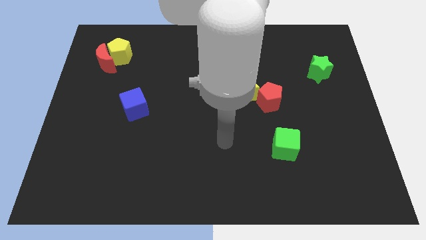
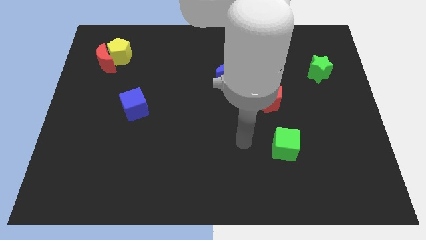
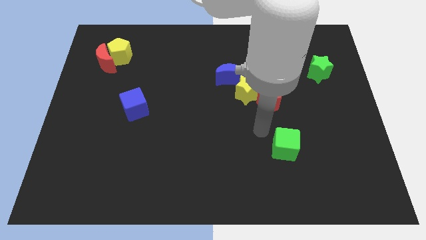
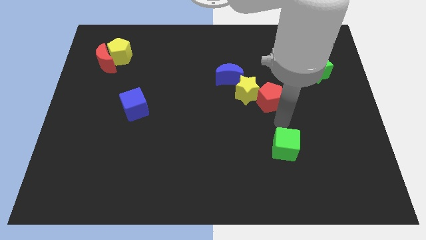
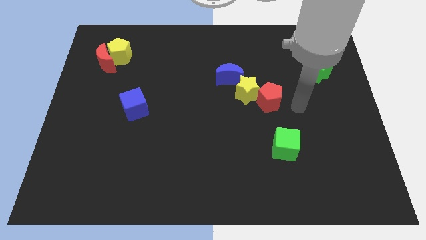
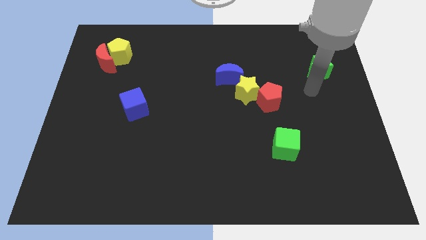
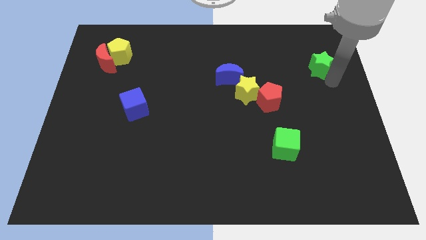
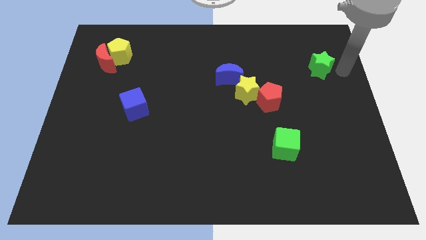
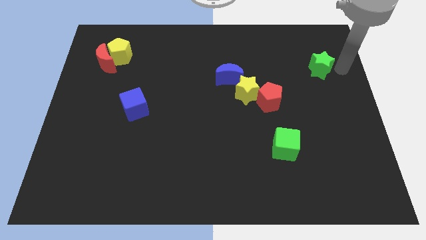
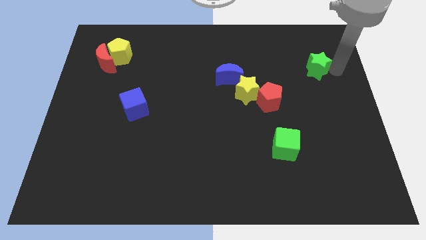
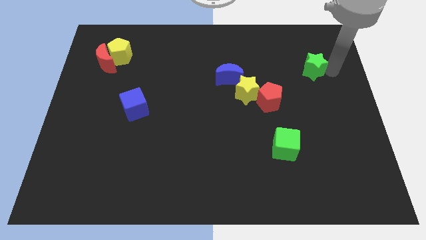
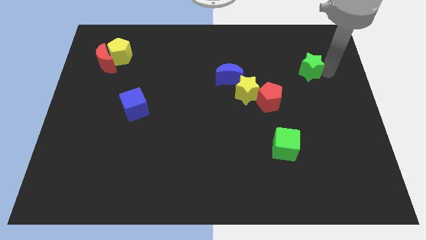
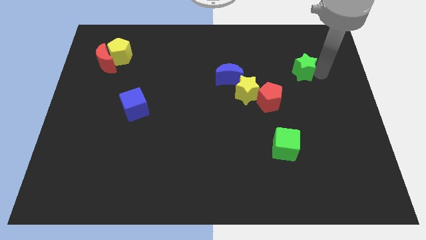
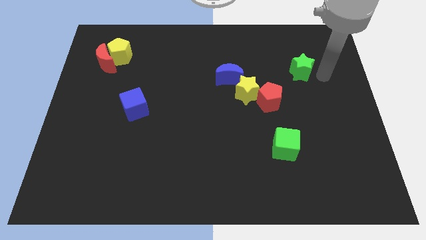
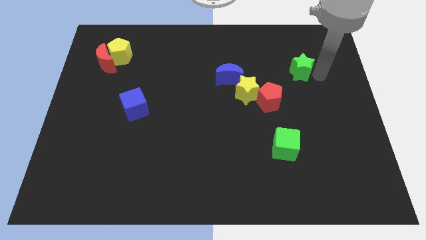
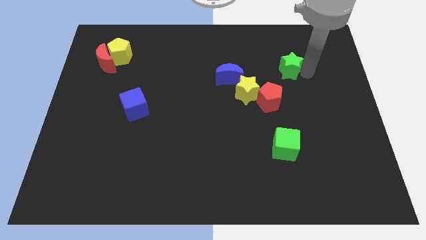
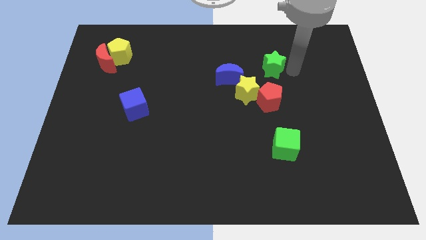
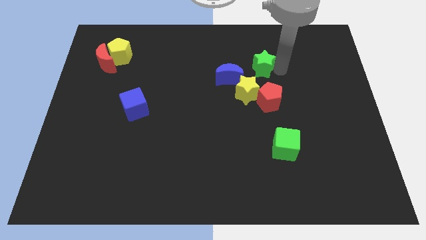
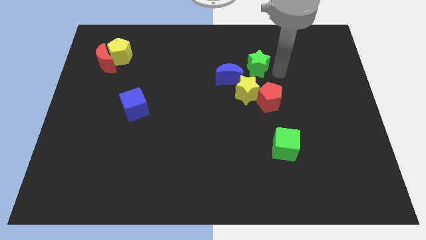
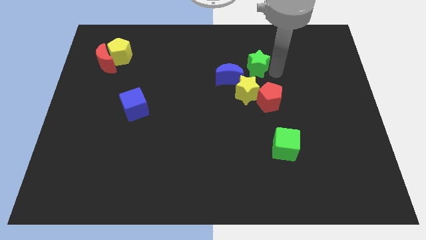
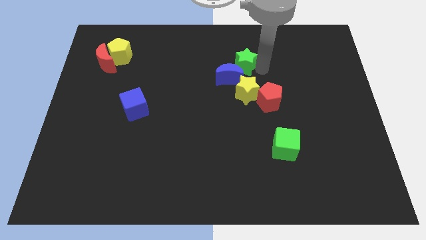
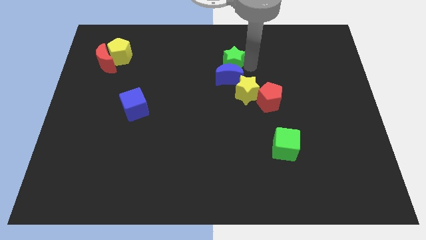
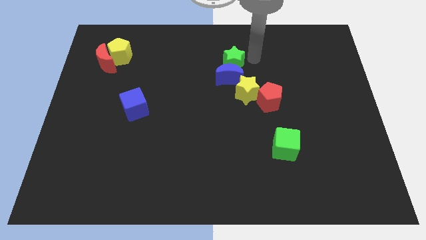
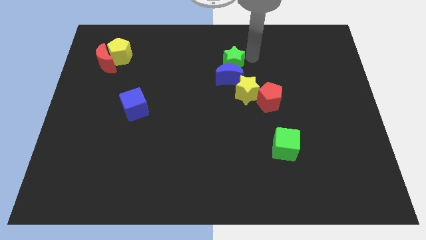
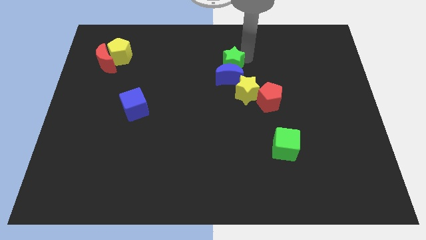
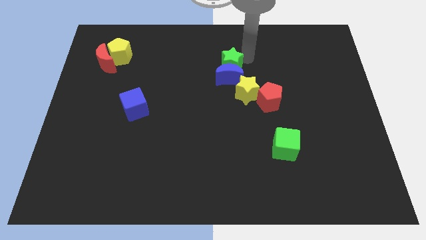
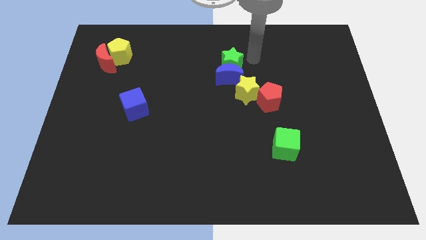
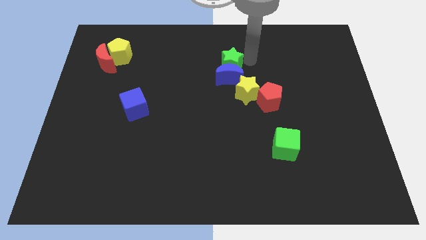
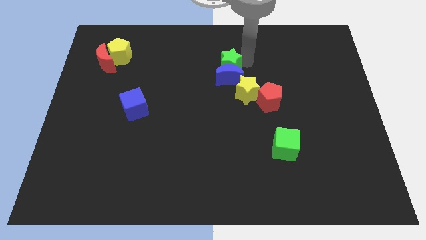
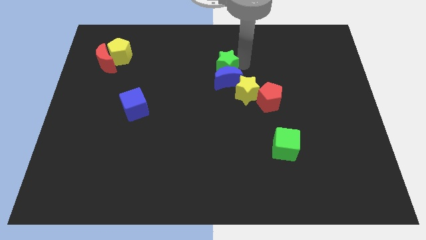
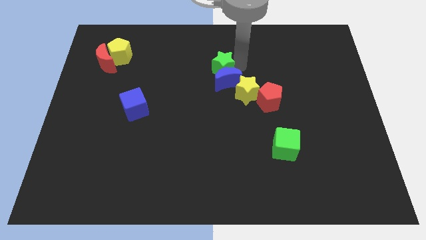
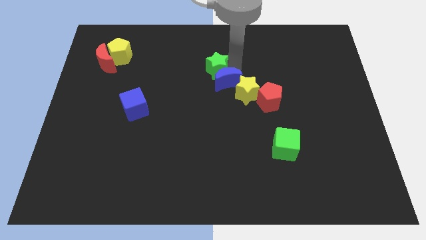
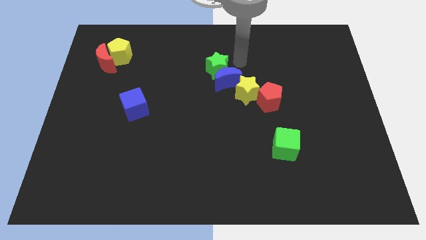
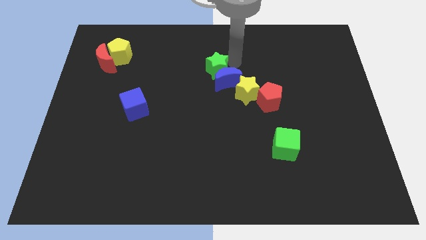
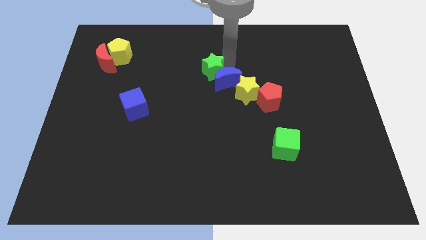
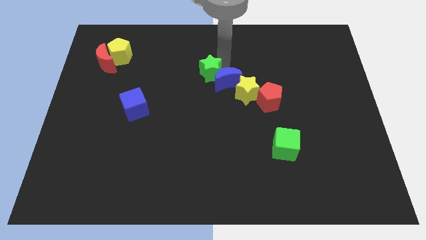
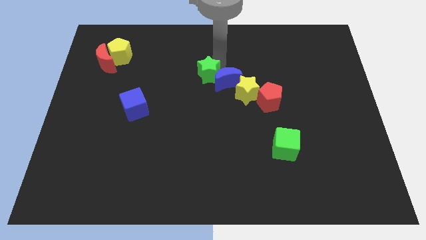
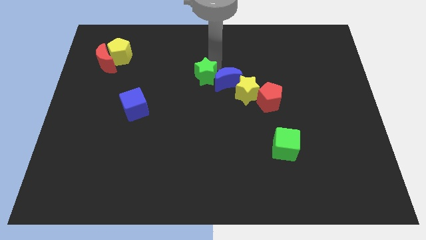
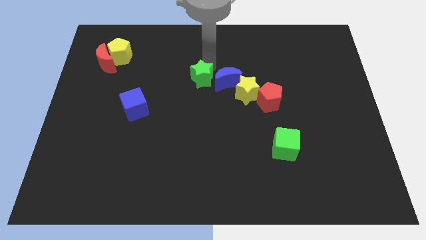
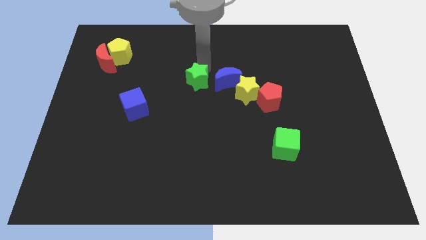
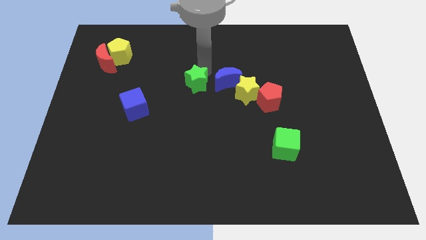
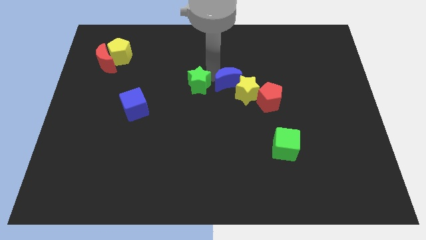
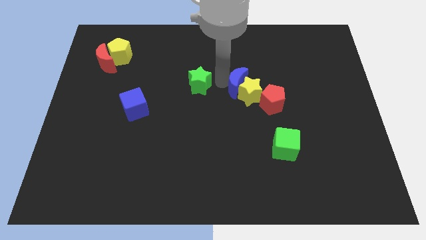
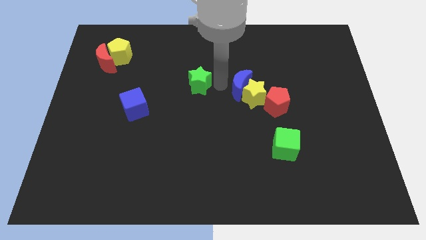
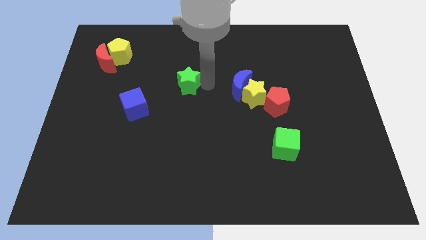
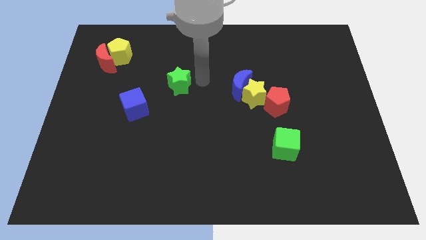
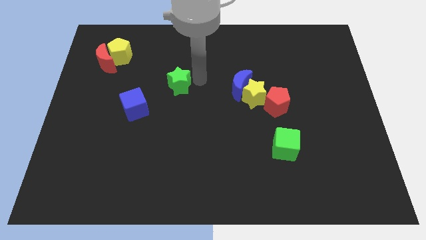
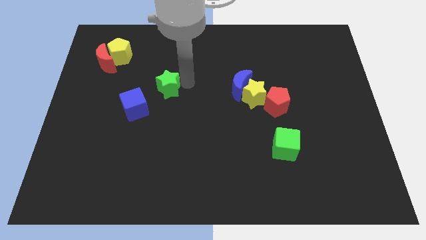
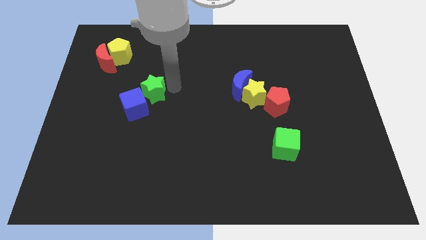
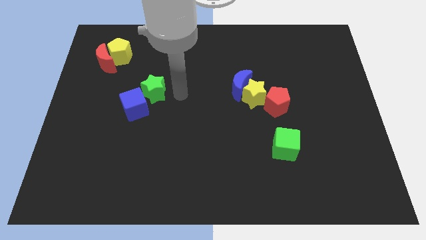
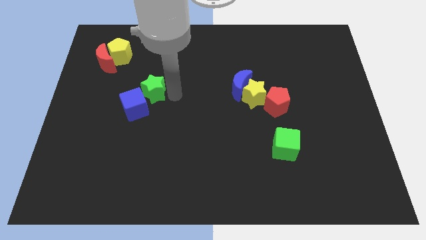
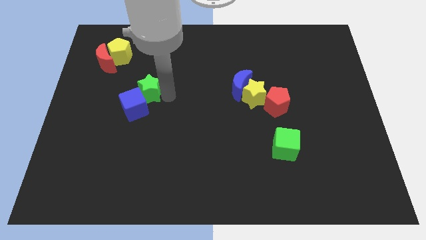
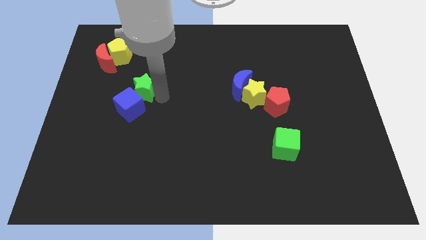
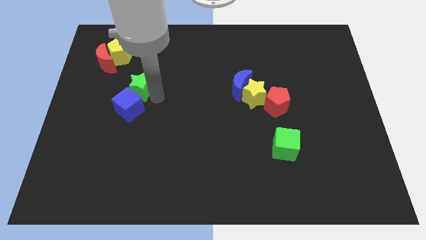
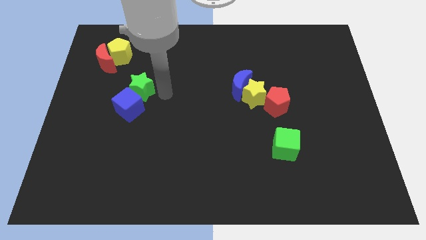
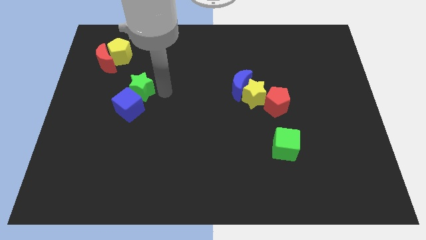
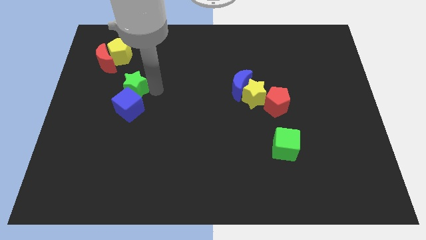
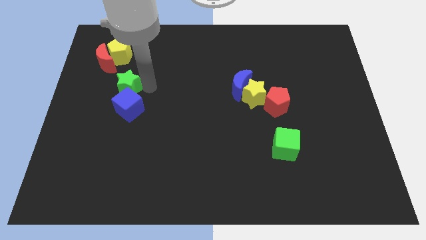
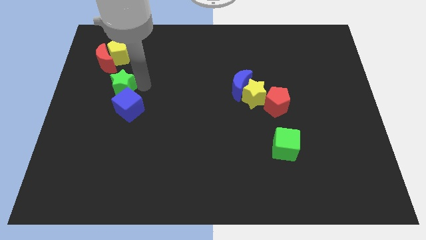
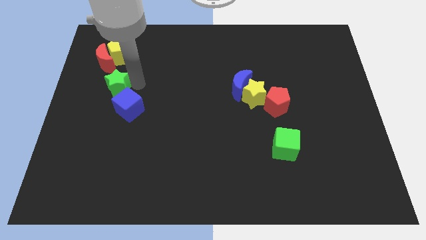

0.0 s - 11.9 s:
move the green star to the bottom of the red moon

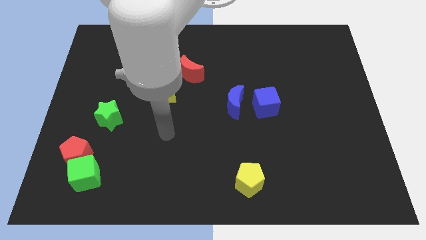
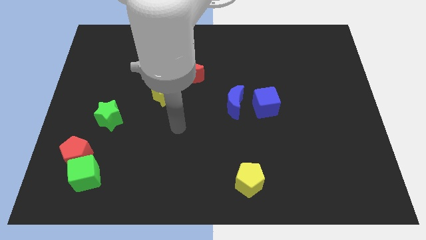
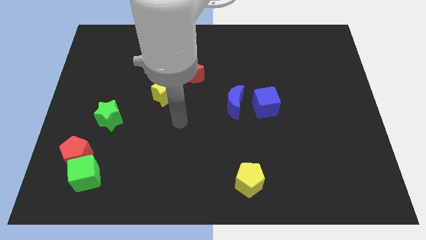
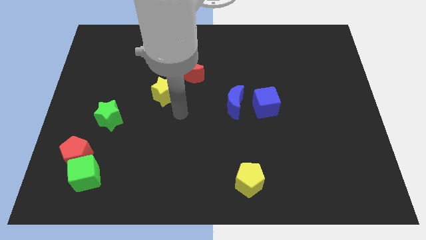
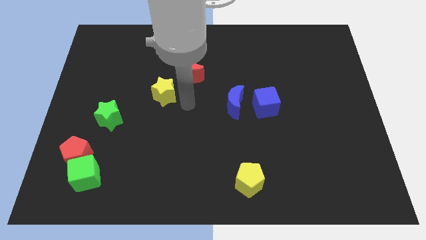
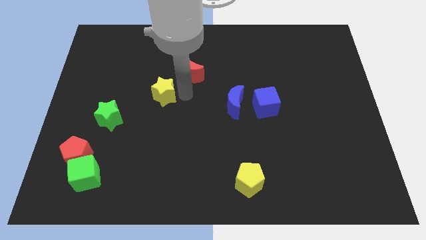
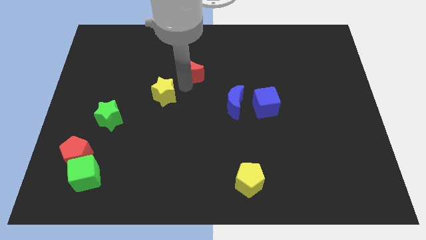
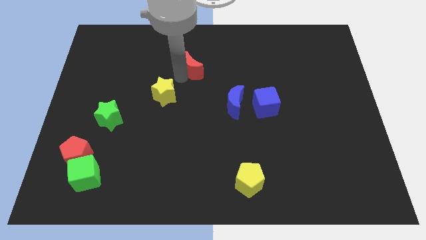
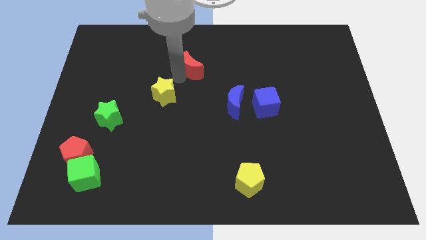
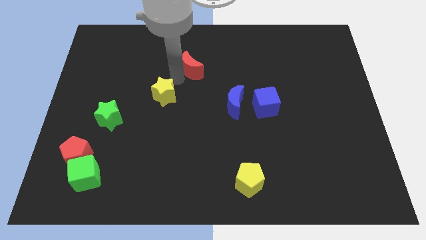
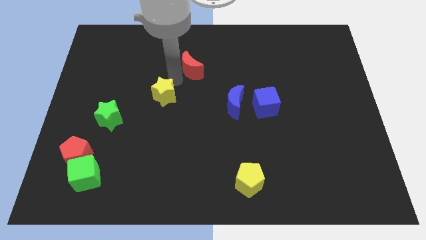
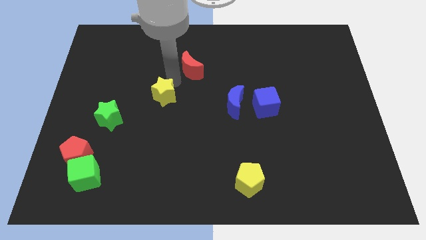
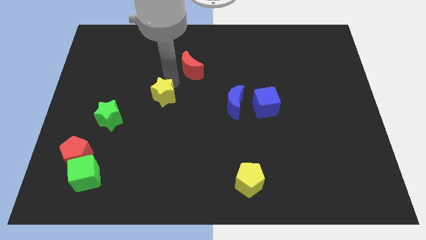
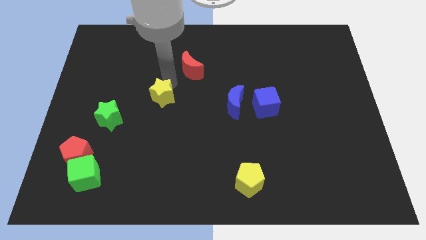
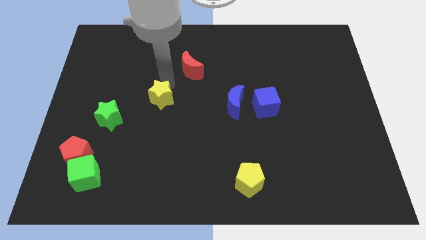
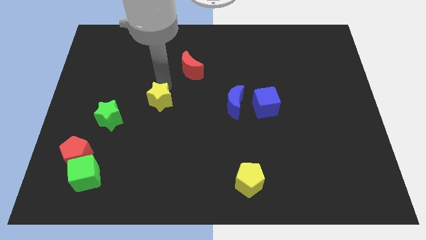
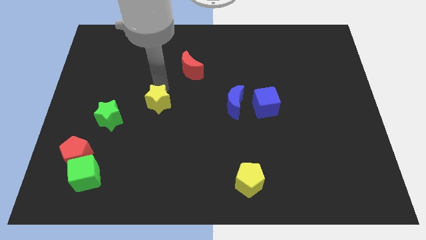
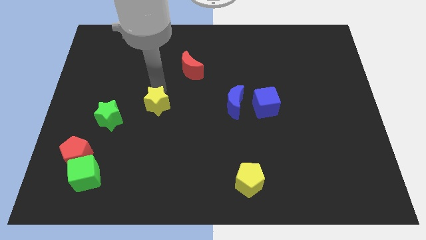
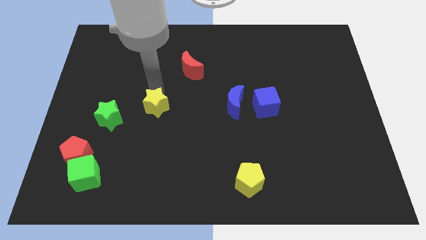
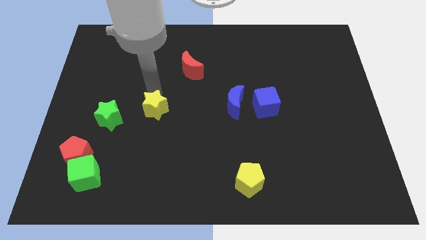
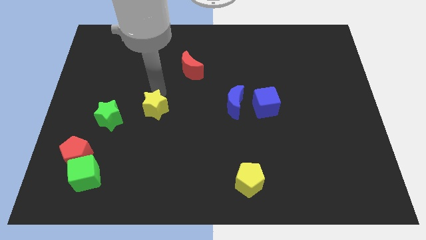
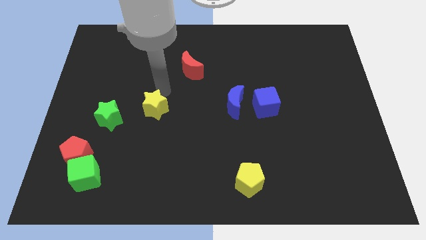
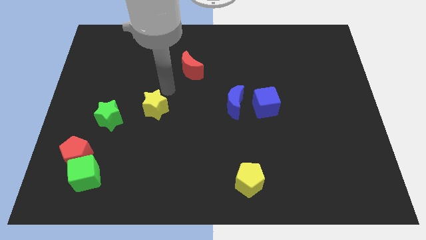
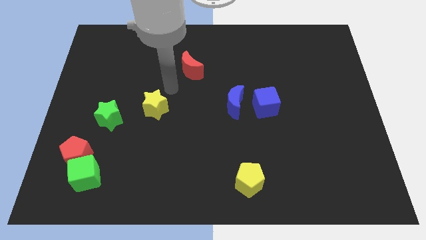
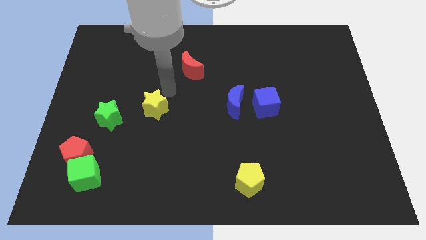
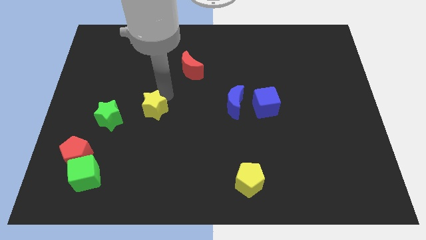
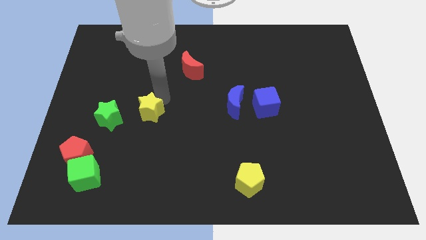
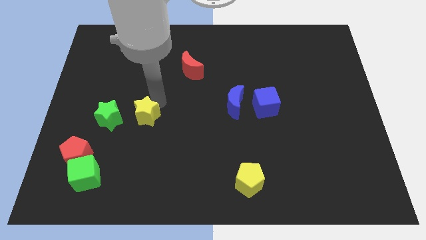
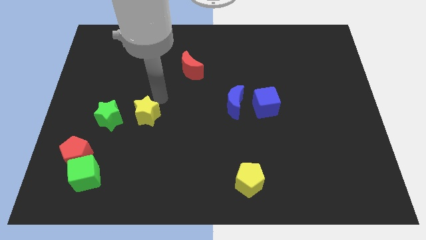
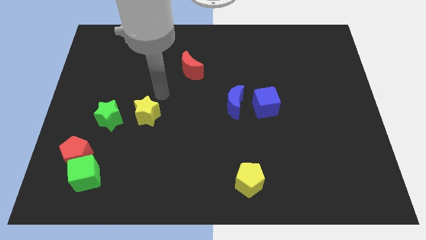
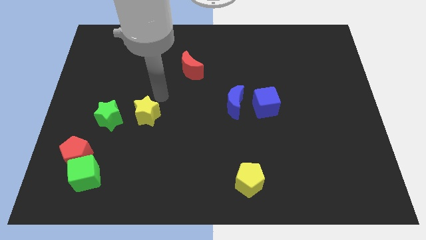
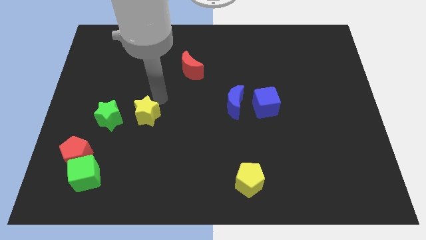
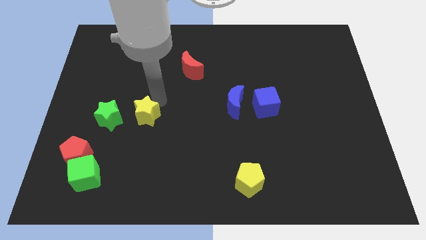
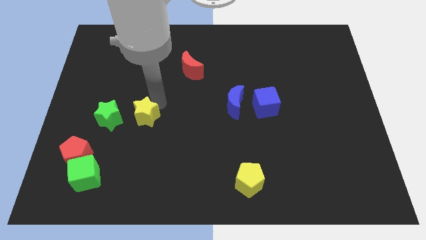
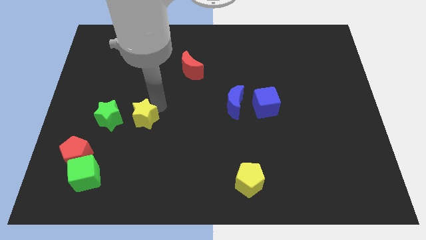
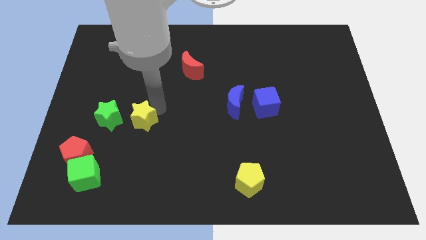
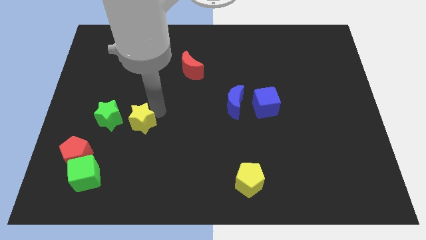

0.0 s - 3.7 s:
push the yellow star to the bottom right side of the green star
